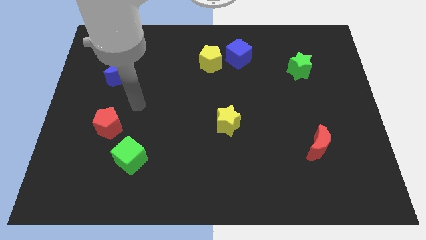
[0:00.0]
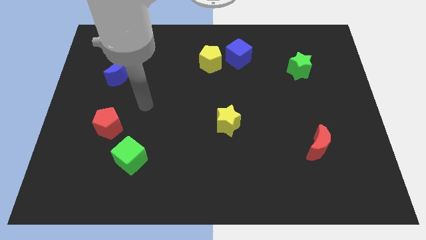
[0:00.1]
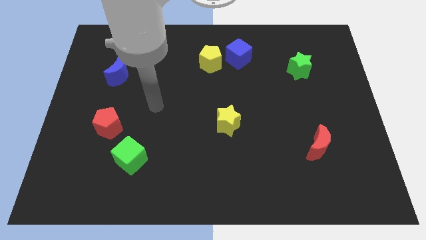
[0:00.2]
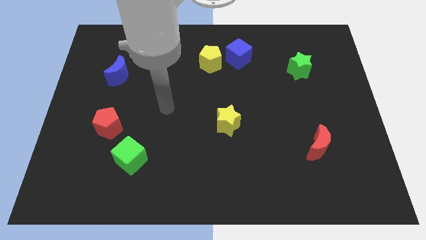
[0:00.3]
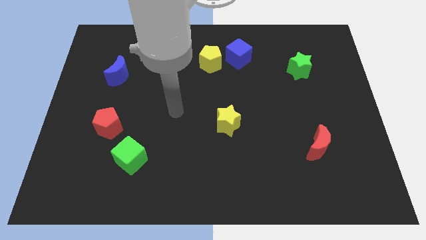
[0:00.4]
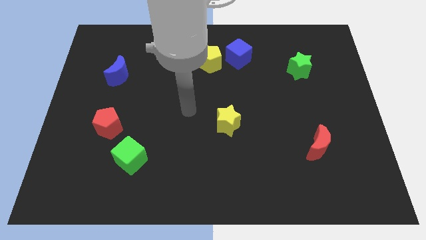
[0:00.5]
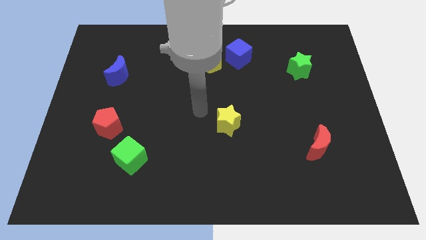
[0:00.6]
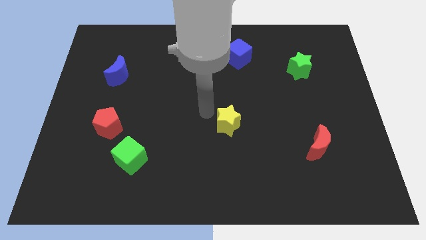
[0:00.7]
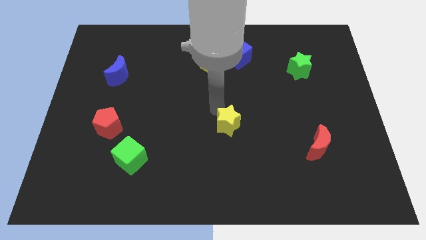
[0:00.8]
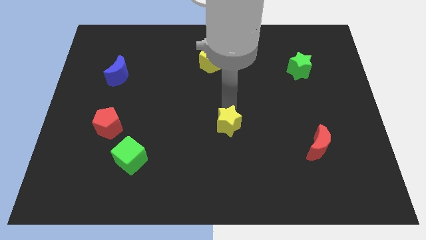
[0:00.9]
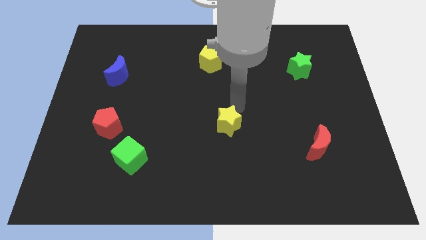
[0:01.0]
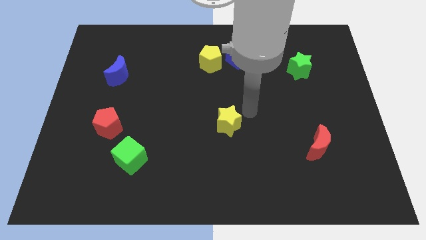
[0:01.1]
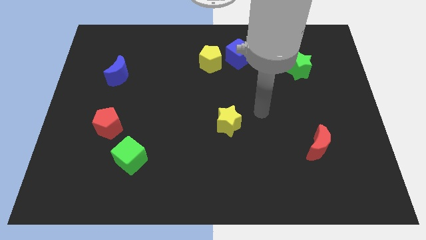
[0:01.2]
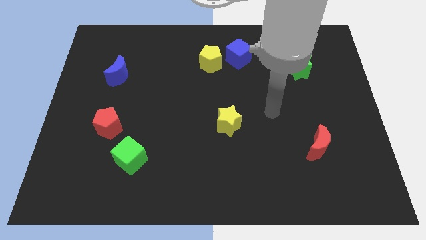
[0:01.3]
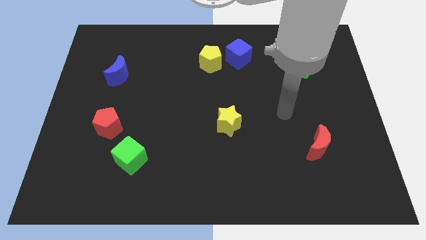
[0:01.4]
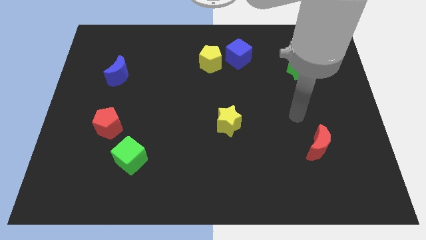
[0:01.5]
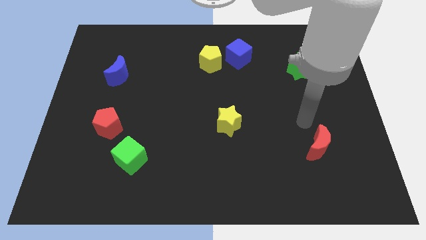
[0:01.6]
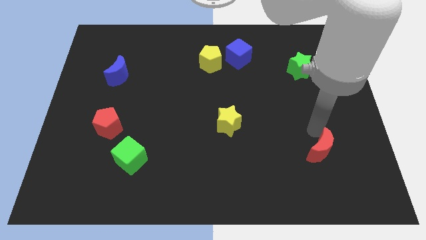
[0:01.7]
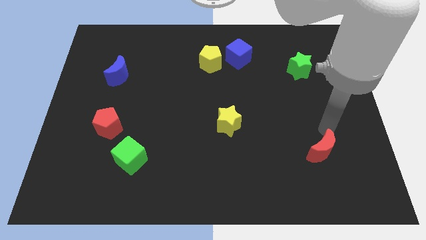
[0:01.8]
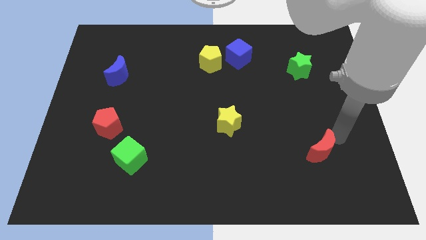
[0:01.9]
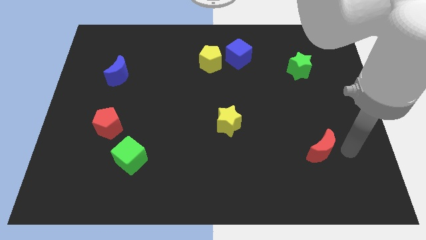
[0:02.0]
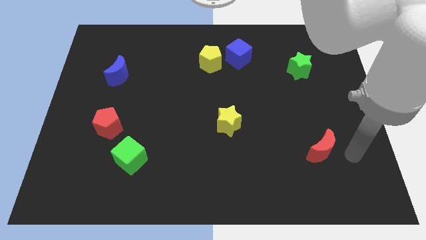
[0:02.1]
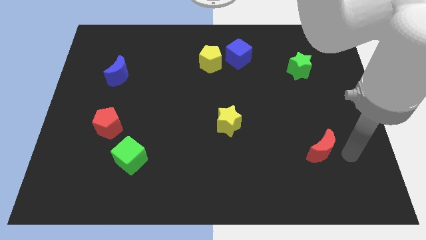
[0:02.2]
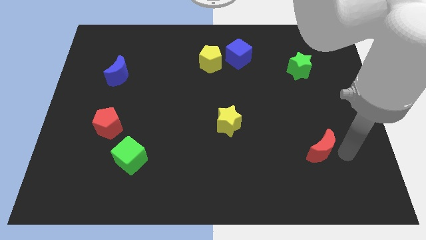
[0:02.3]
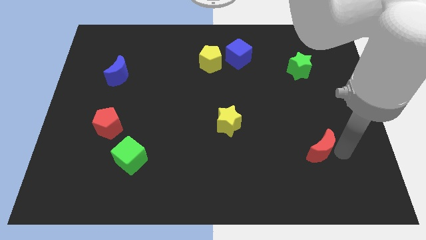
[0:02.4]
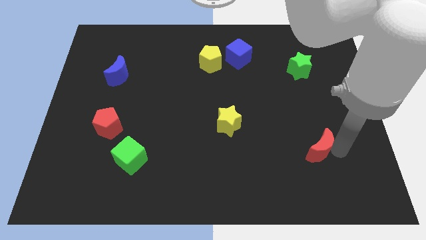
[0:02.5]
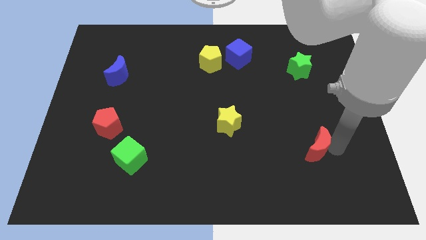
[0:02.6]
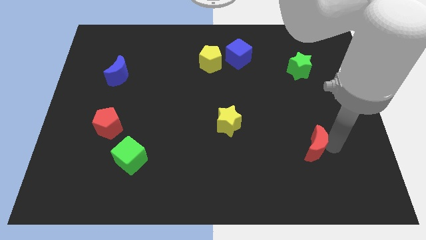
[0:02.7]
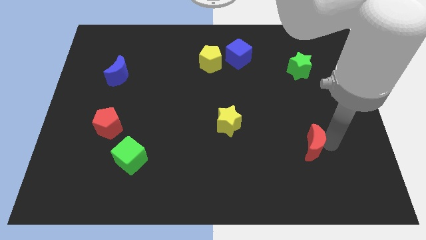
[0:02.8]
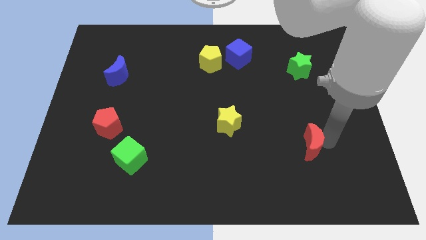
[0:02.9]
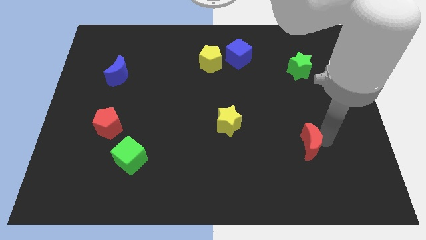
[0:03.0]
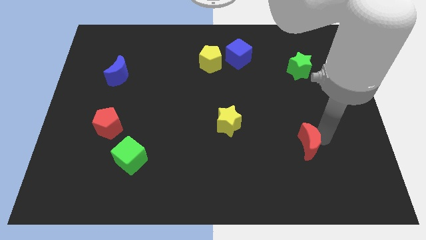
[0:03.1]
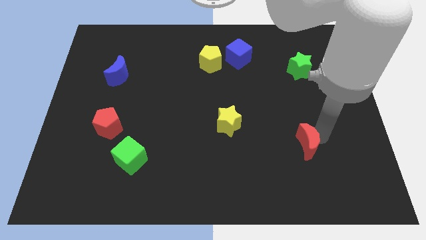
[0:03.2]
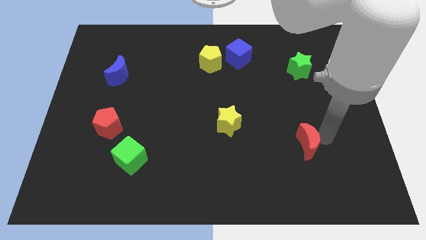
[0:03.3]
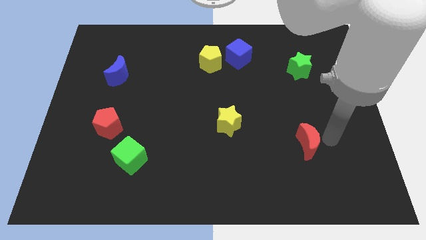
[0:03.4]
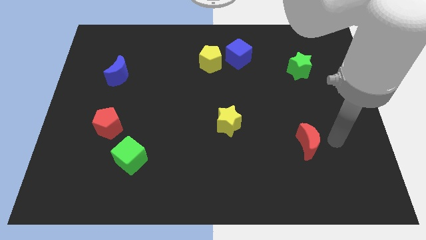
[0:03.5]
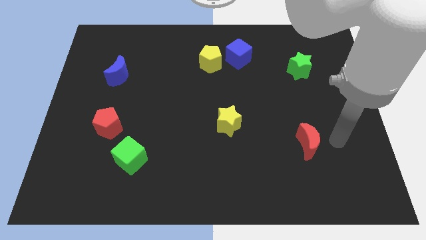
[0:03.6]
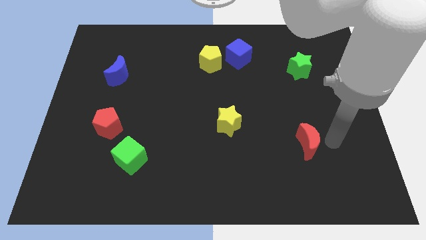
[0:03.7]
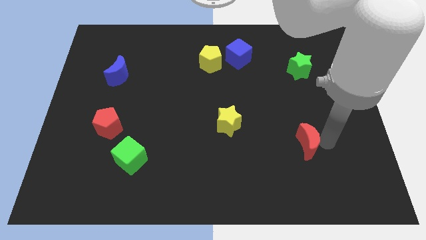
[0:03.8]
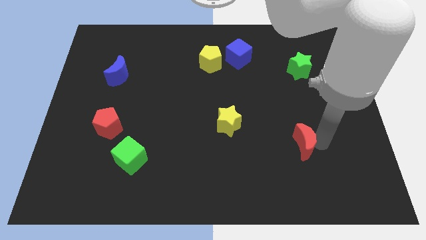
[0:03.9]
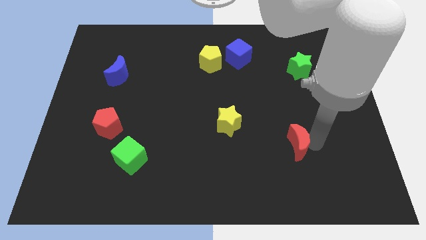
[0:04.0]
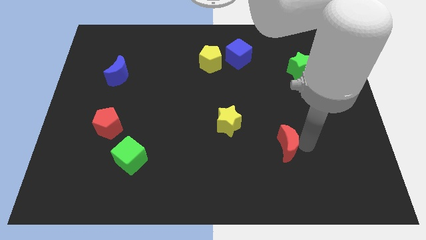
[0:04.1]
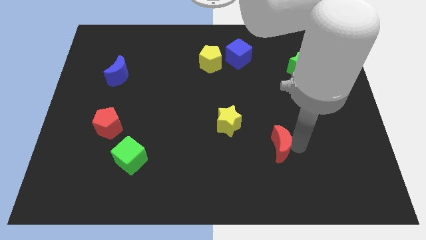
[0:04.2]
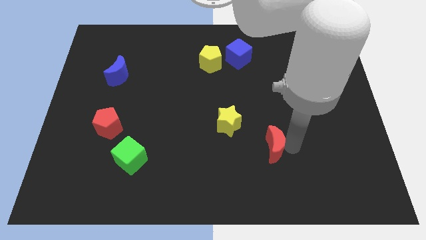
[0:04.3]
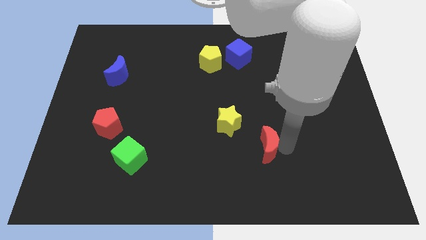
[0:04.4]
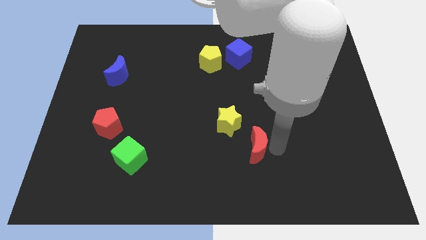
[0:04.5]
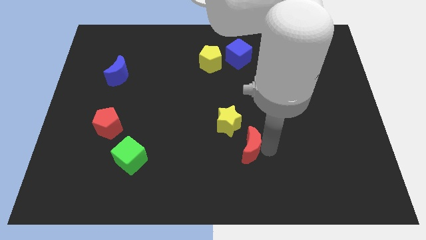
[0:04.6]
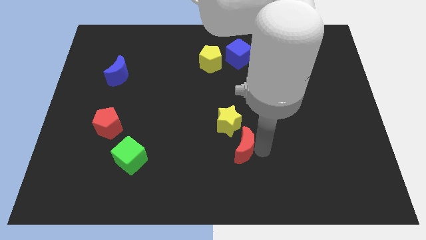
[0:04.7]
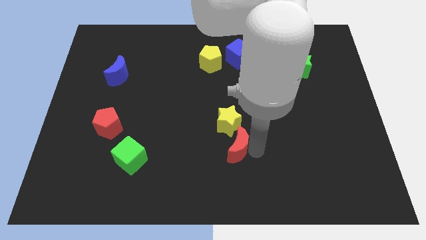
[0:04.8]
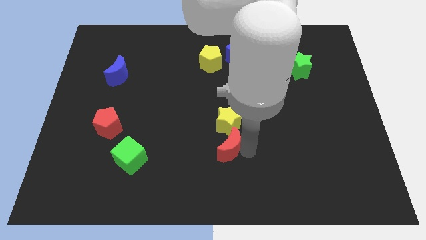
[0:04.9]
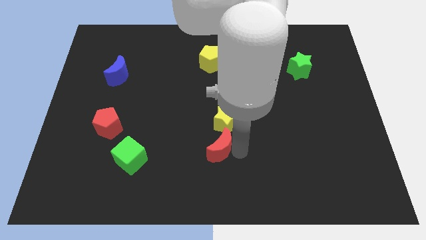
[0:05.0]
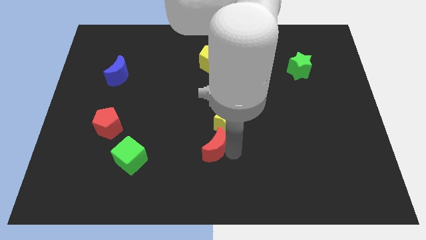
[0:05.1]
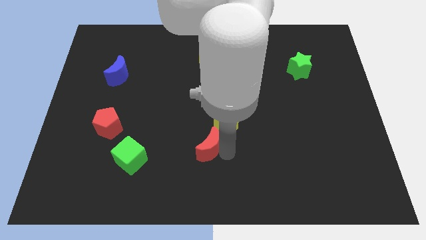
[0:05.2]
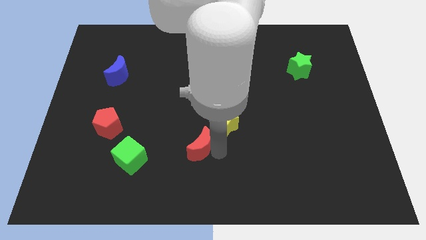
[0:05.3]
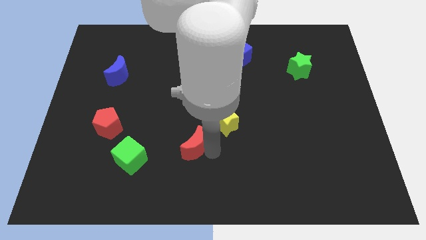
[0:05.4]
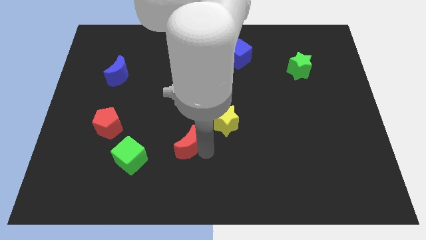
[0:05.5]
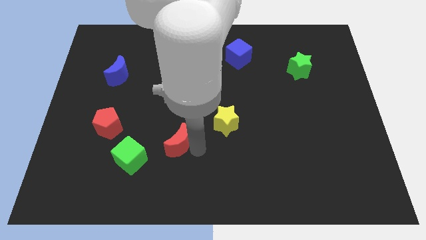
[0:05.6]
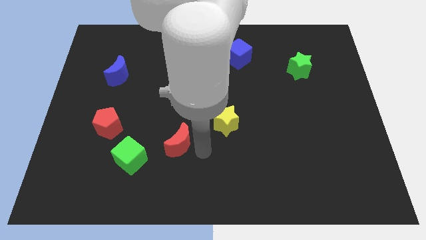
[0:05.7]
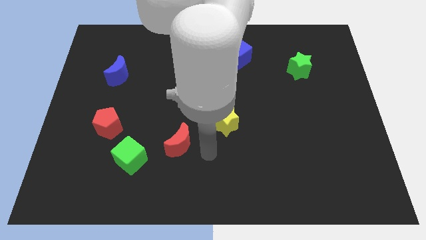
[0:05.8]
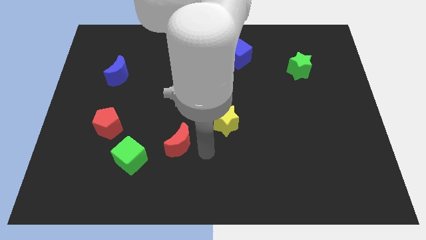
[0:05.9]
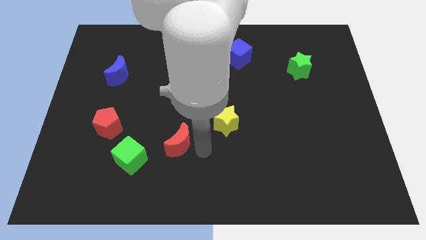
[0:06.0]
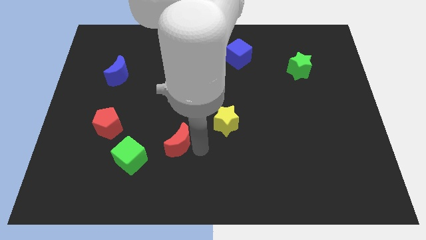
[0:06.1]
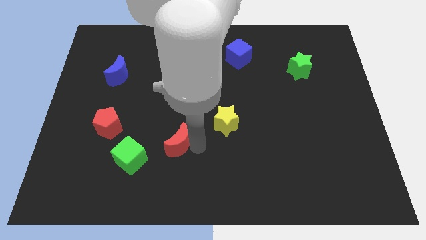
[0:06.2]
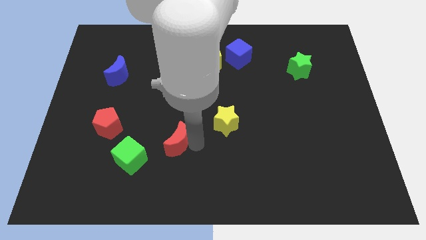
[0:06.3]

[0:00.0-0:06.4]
put the red moon to the top right side of the green cube

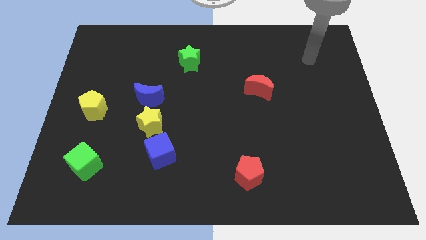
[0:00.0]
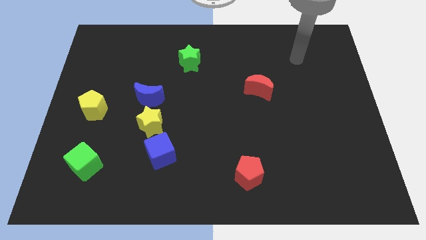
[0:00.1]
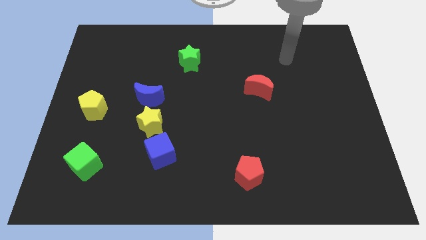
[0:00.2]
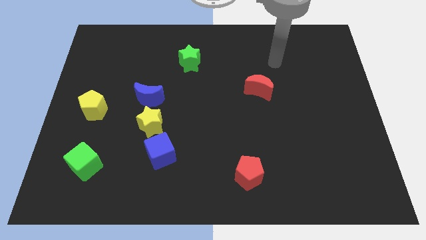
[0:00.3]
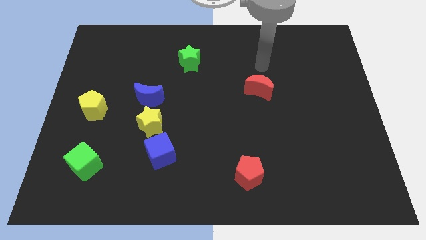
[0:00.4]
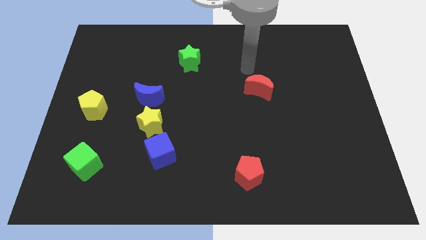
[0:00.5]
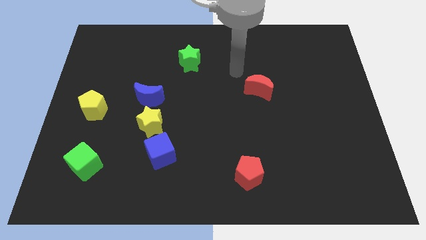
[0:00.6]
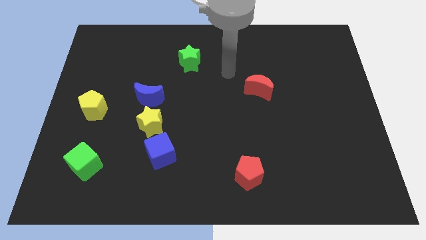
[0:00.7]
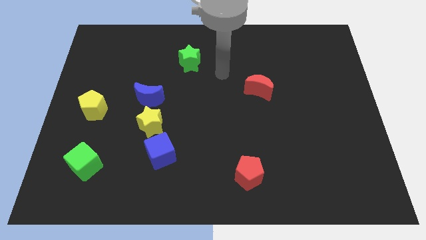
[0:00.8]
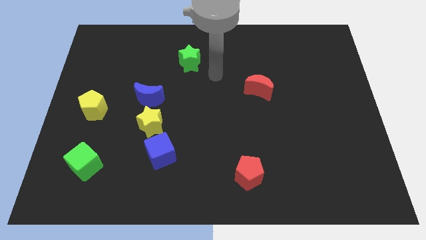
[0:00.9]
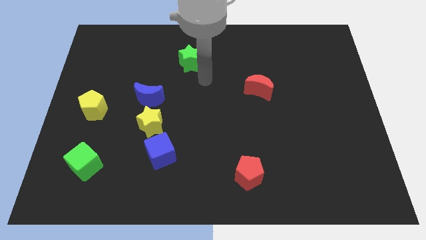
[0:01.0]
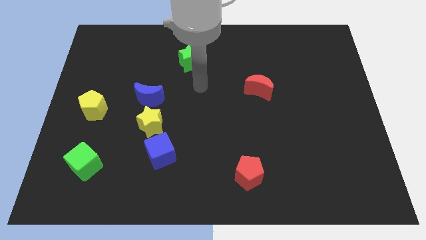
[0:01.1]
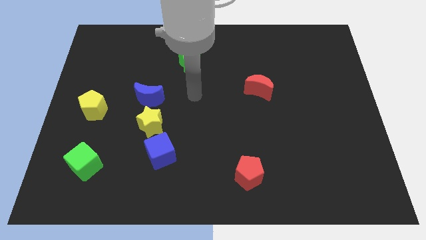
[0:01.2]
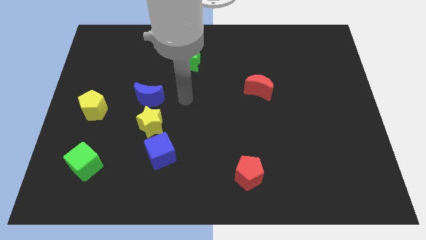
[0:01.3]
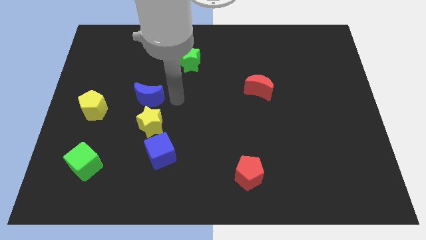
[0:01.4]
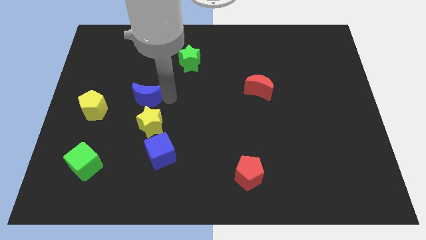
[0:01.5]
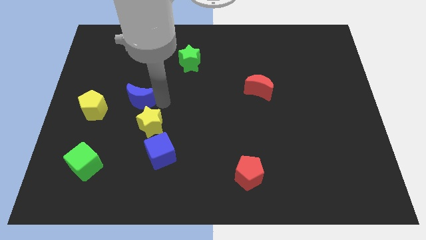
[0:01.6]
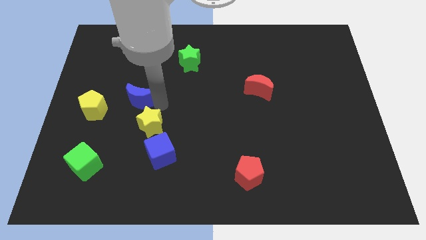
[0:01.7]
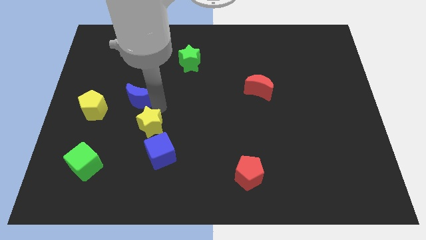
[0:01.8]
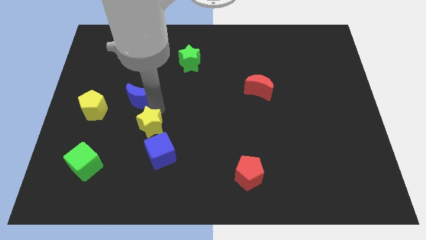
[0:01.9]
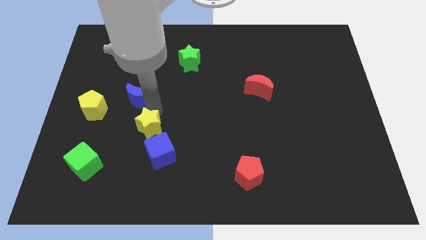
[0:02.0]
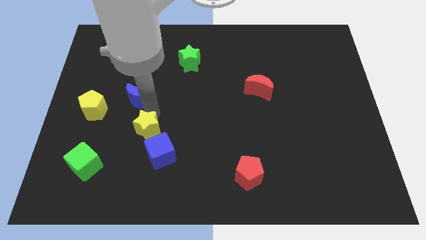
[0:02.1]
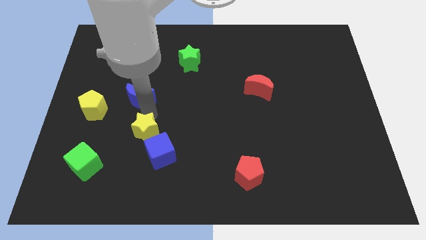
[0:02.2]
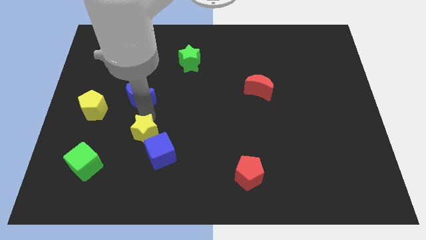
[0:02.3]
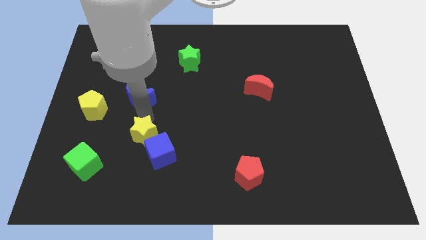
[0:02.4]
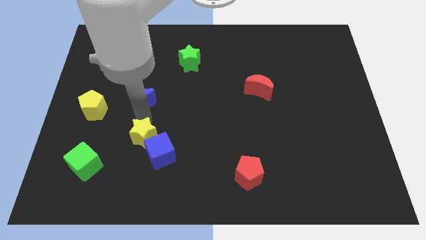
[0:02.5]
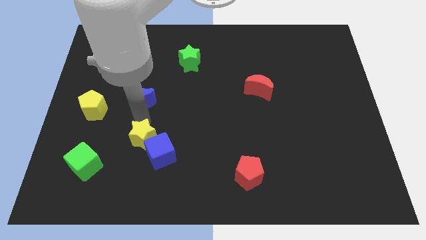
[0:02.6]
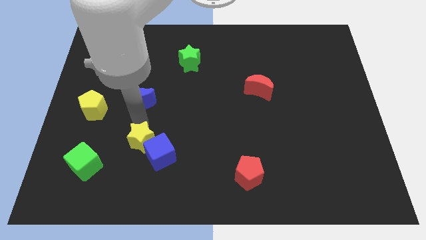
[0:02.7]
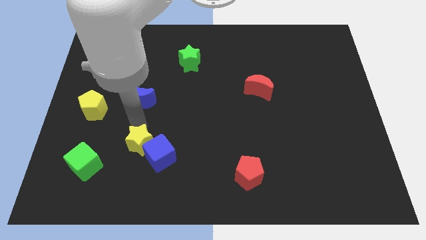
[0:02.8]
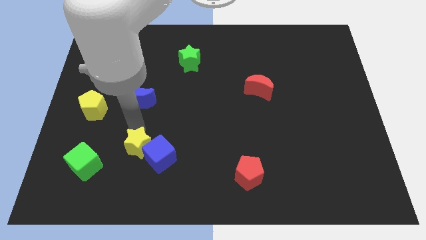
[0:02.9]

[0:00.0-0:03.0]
slide the yellow star right of the green cube
